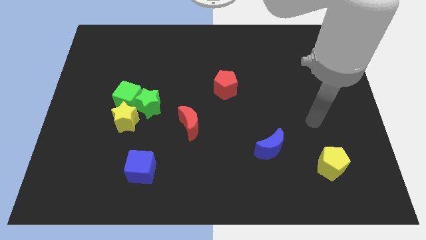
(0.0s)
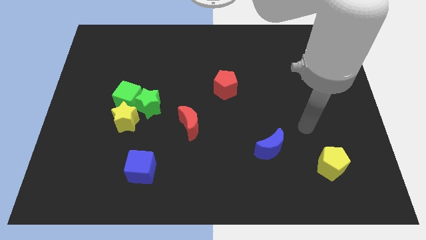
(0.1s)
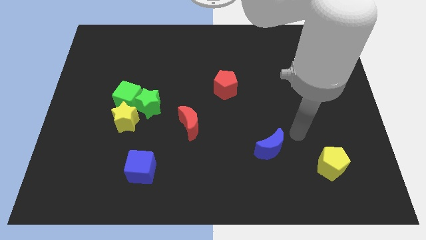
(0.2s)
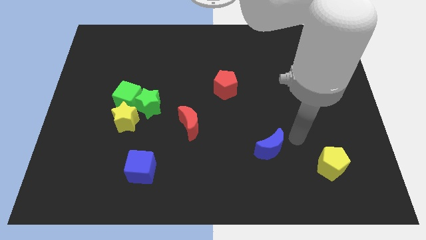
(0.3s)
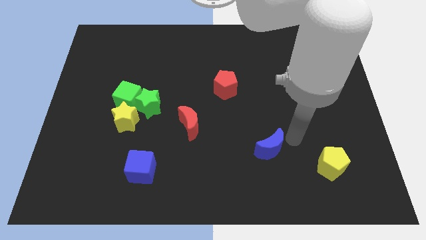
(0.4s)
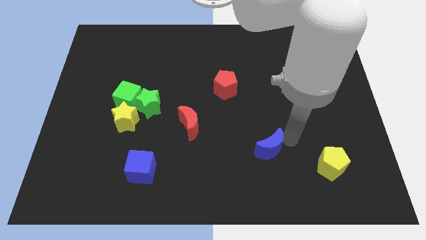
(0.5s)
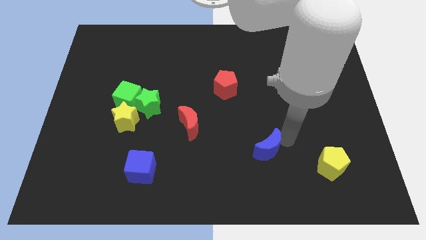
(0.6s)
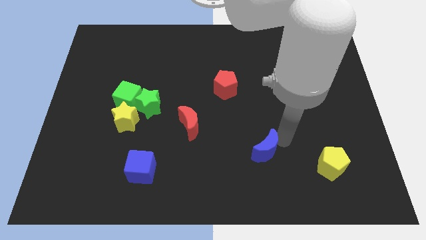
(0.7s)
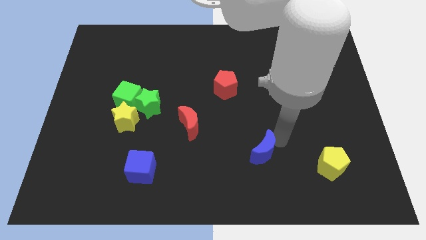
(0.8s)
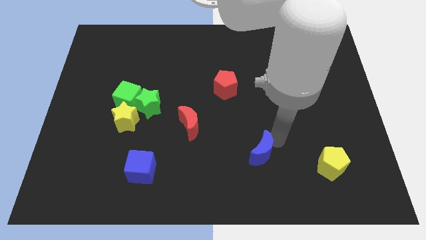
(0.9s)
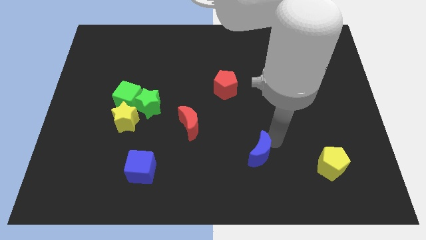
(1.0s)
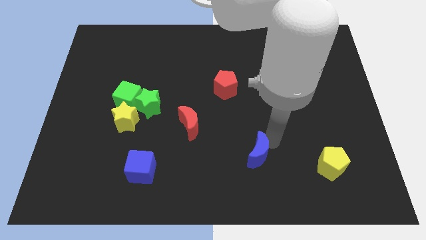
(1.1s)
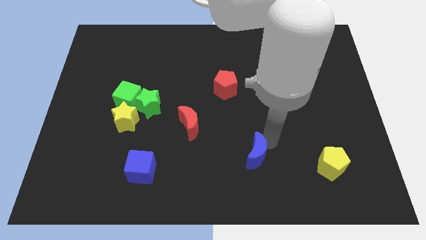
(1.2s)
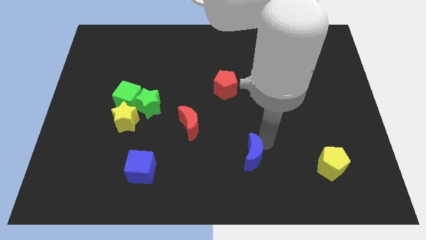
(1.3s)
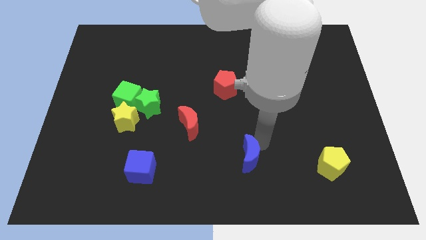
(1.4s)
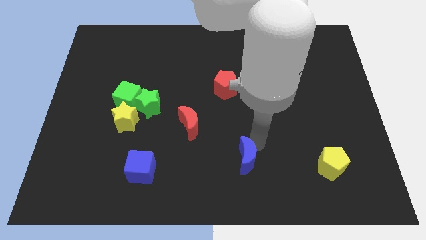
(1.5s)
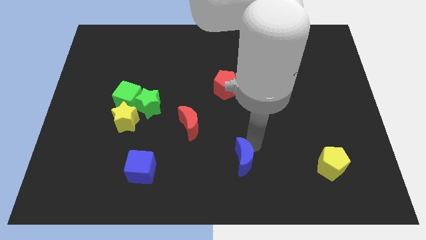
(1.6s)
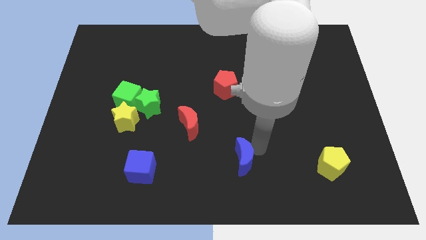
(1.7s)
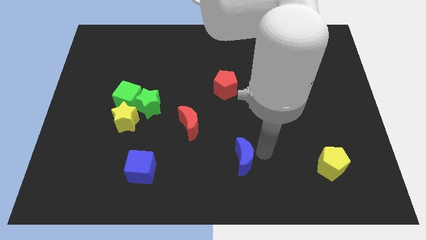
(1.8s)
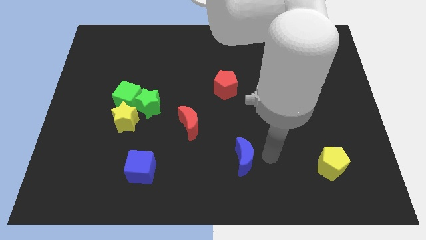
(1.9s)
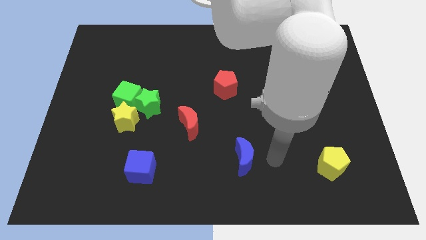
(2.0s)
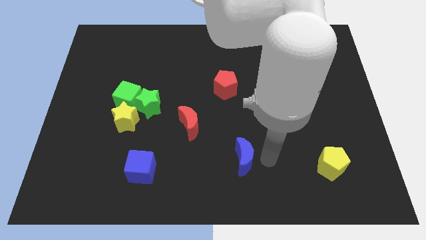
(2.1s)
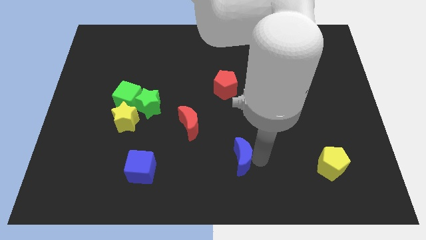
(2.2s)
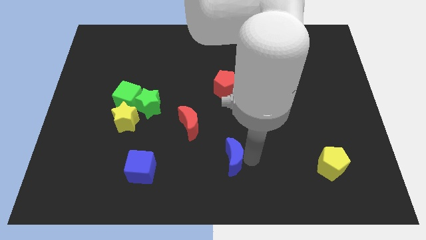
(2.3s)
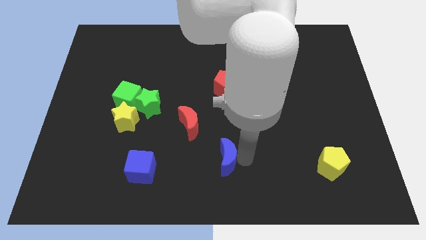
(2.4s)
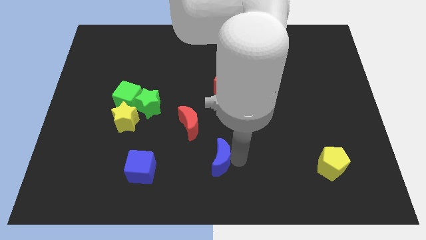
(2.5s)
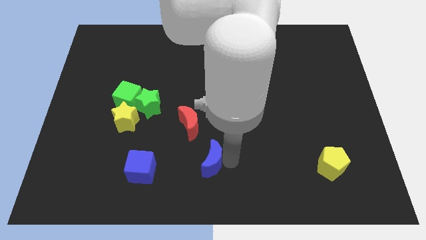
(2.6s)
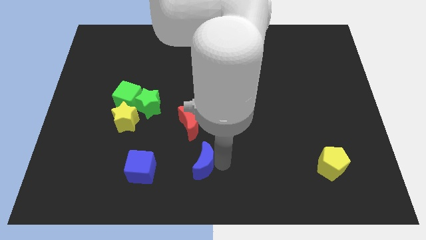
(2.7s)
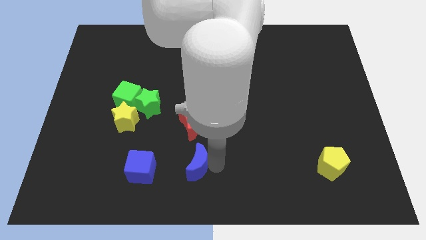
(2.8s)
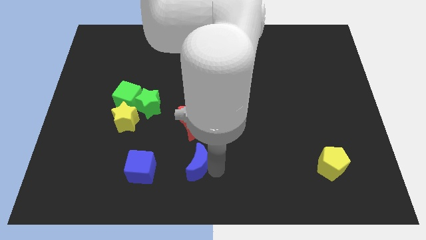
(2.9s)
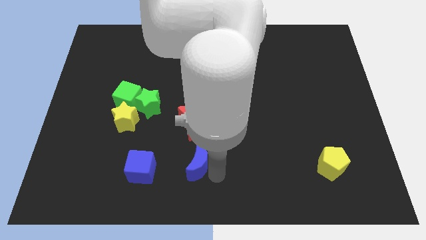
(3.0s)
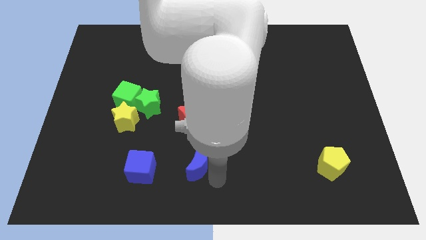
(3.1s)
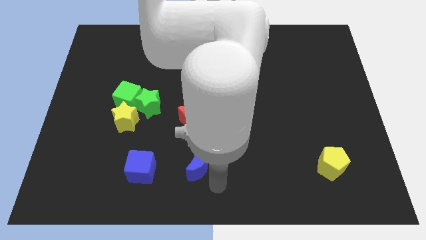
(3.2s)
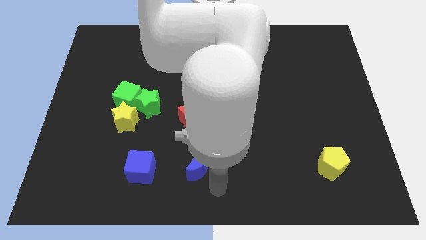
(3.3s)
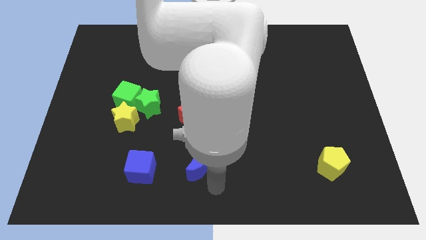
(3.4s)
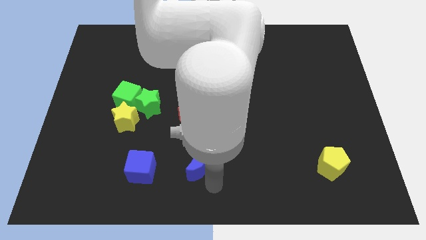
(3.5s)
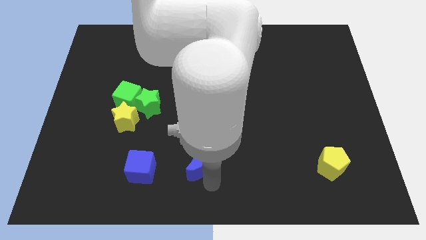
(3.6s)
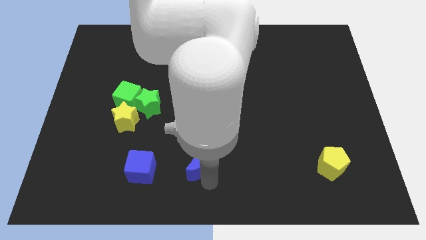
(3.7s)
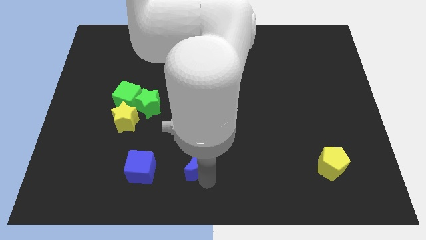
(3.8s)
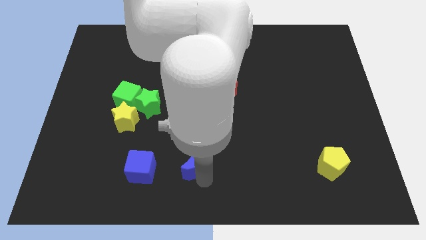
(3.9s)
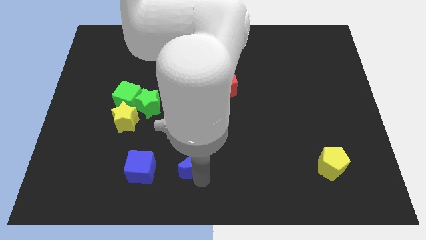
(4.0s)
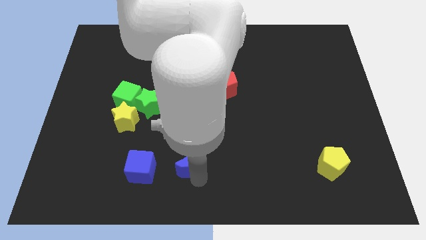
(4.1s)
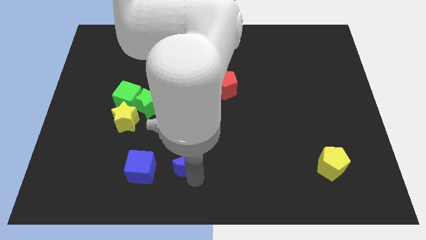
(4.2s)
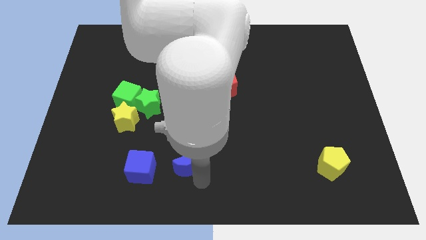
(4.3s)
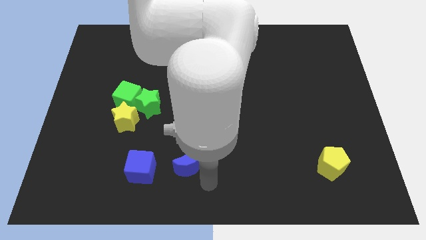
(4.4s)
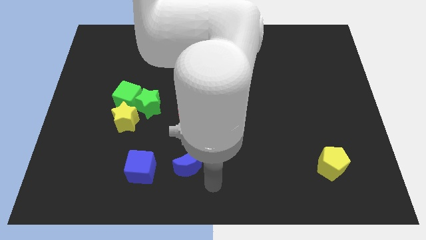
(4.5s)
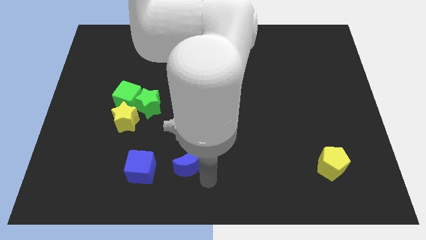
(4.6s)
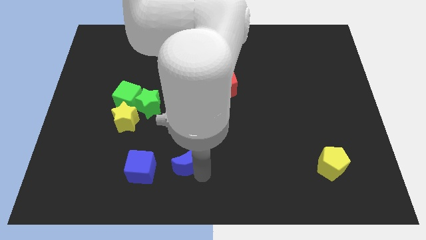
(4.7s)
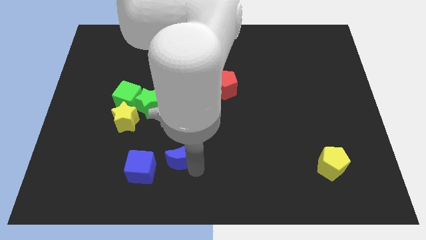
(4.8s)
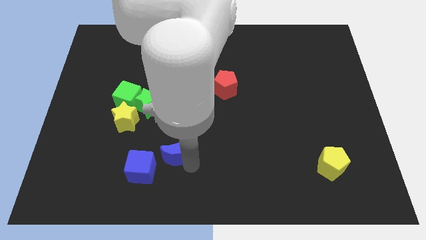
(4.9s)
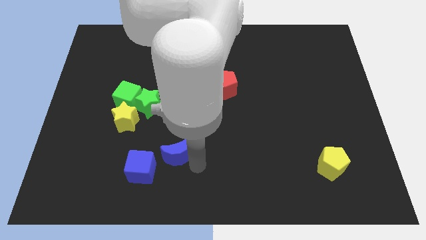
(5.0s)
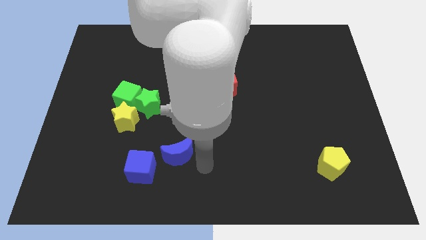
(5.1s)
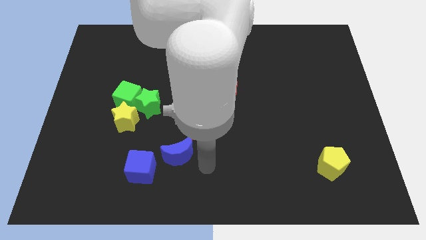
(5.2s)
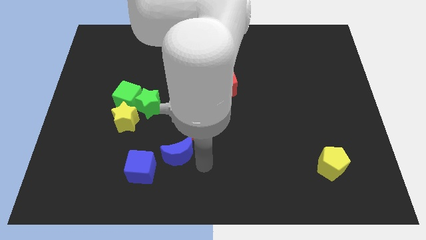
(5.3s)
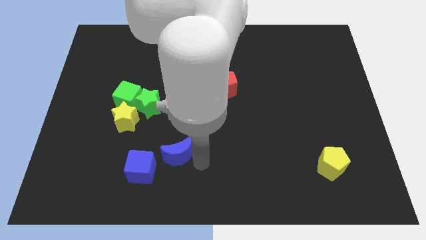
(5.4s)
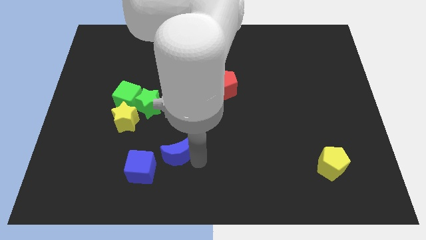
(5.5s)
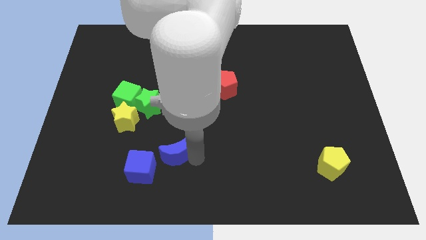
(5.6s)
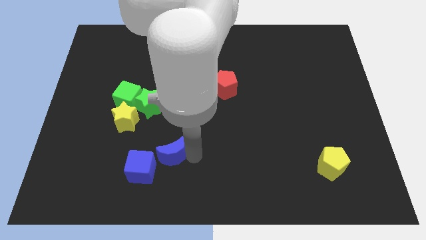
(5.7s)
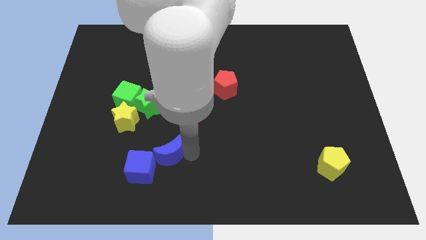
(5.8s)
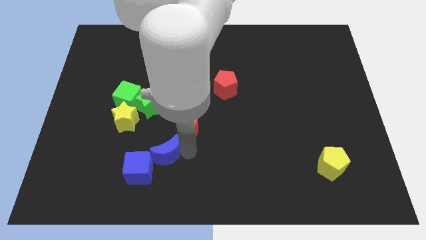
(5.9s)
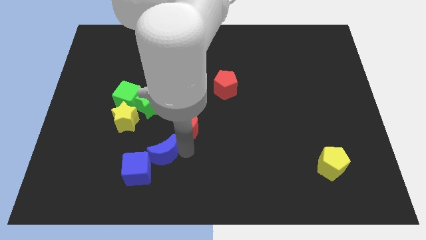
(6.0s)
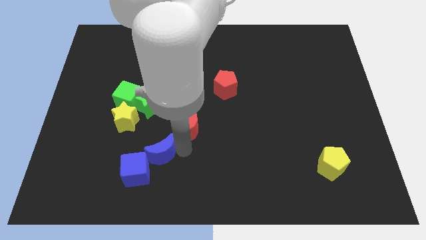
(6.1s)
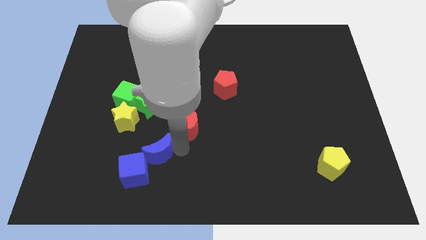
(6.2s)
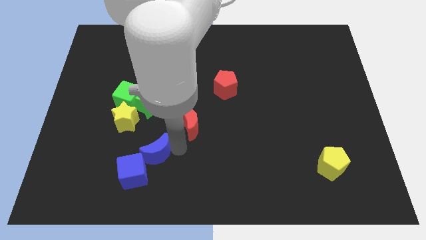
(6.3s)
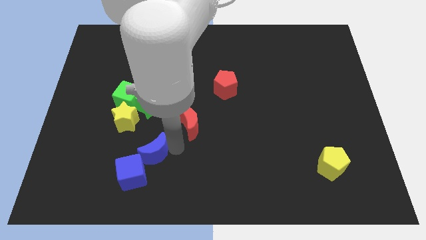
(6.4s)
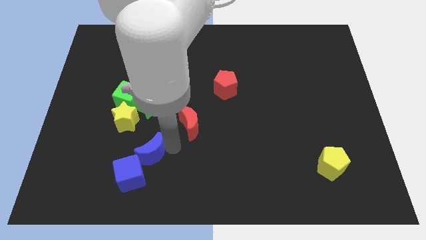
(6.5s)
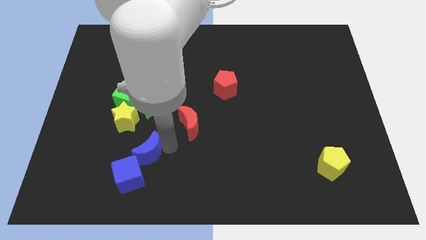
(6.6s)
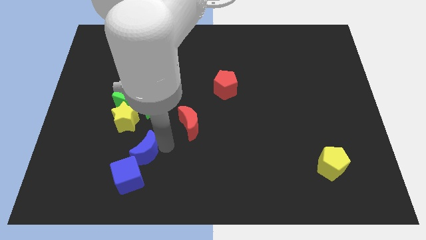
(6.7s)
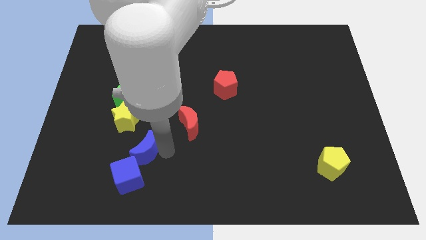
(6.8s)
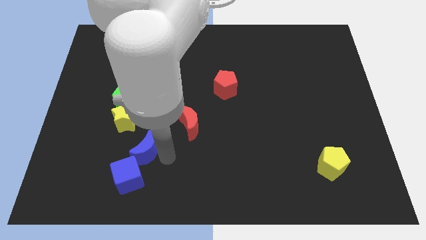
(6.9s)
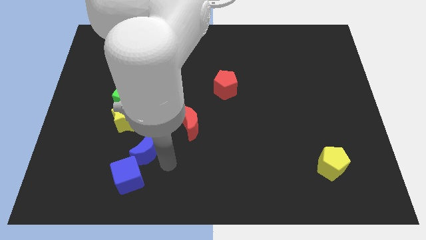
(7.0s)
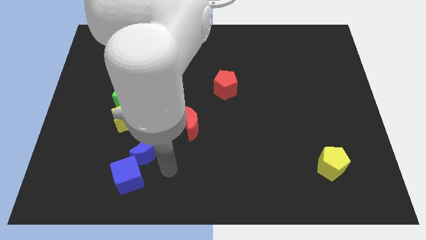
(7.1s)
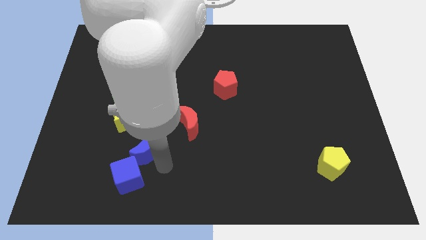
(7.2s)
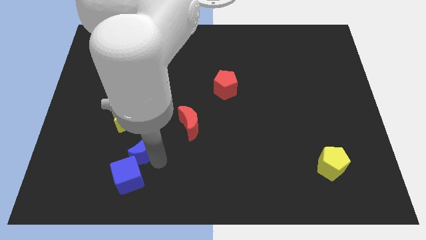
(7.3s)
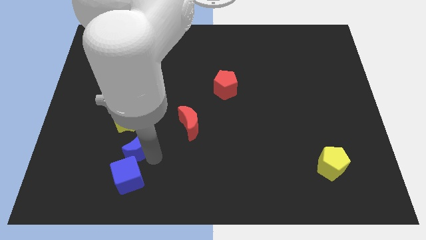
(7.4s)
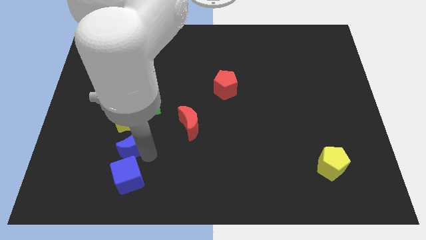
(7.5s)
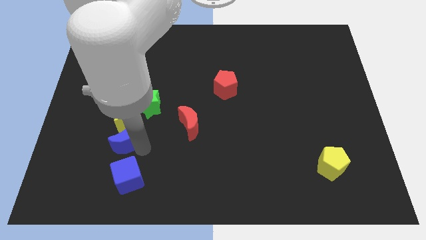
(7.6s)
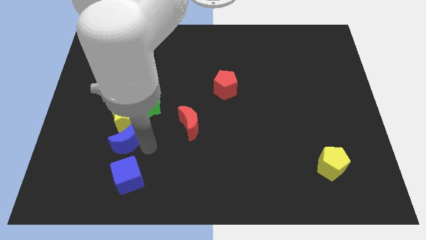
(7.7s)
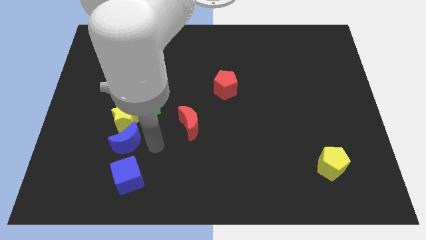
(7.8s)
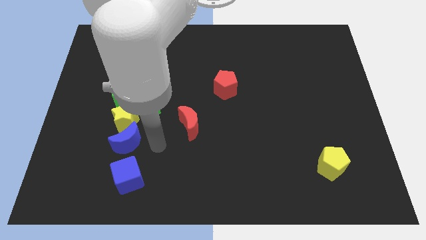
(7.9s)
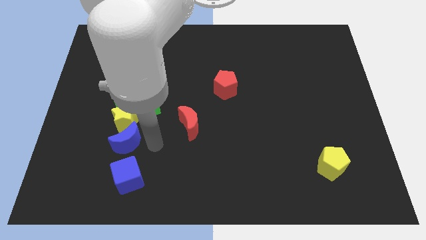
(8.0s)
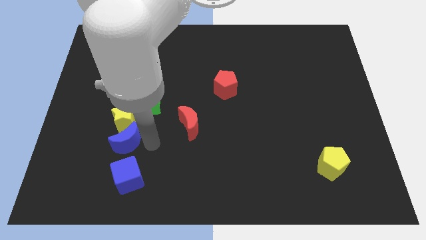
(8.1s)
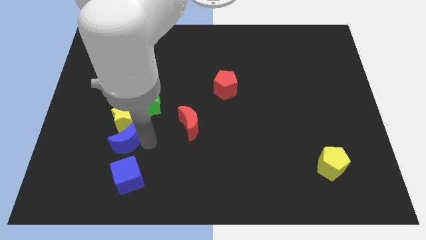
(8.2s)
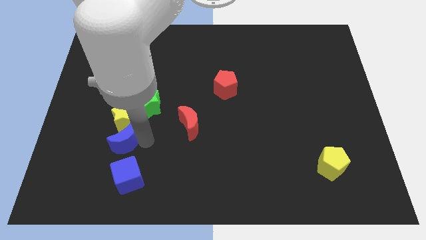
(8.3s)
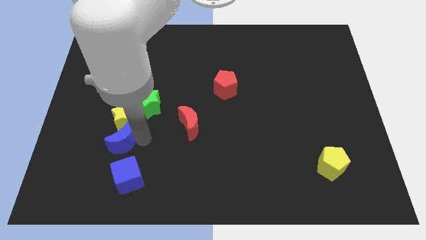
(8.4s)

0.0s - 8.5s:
slide the blue moon to the bottom left of the yellow star
